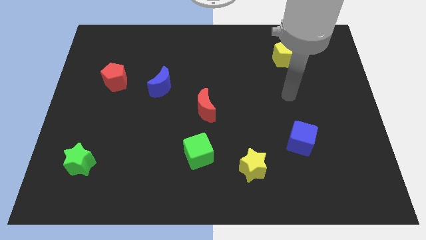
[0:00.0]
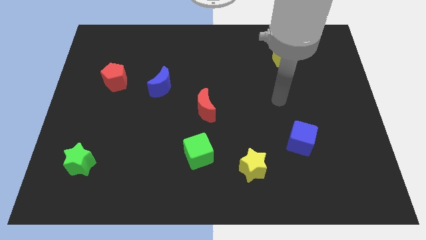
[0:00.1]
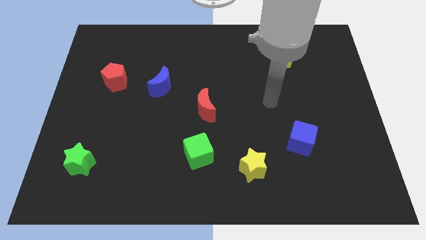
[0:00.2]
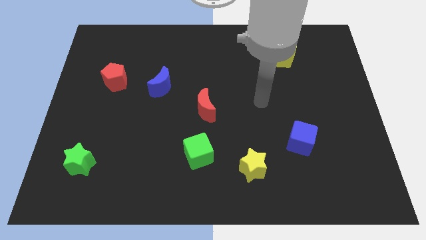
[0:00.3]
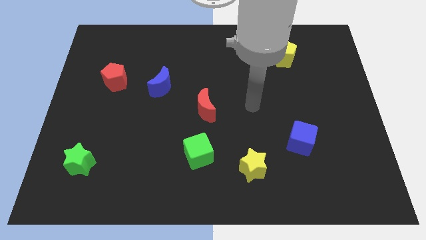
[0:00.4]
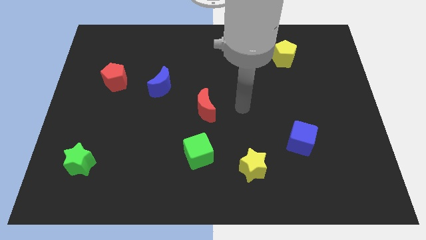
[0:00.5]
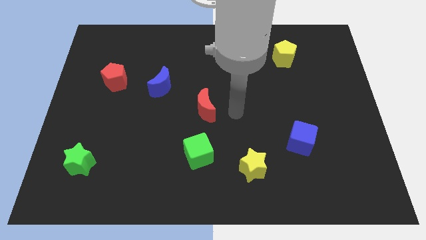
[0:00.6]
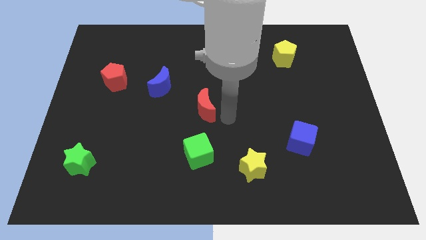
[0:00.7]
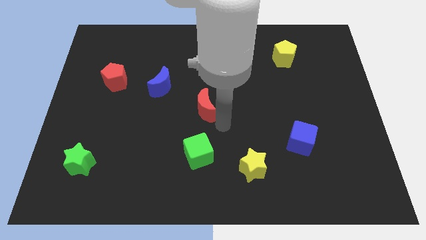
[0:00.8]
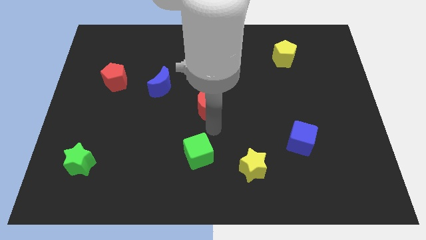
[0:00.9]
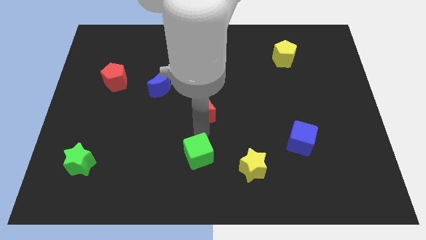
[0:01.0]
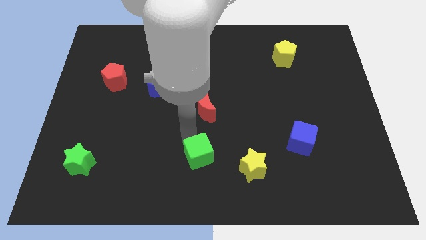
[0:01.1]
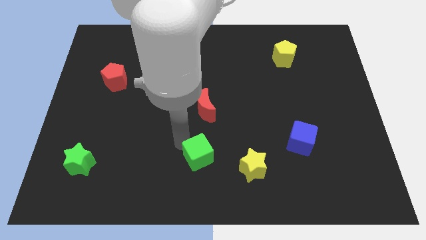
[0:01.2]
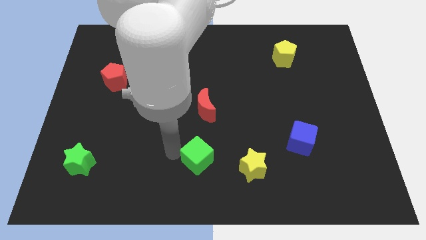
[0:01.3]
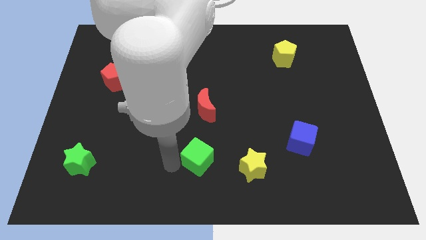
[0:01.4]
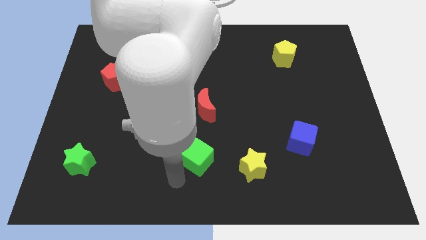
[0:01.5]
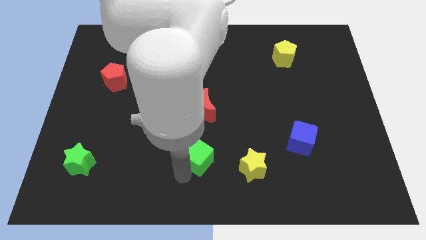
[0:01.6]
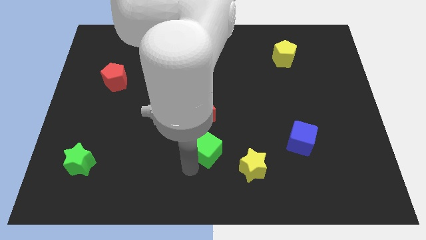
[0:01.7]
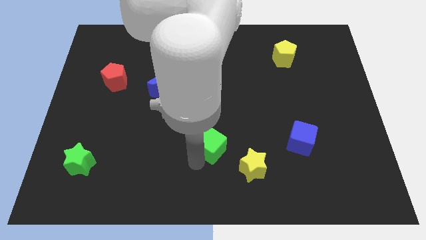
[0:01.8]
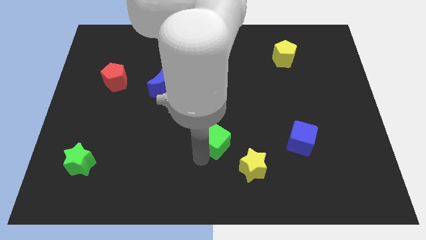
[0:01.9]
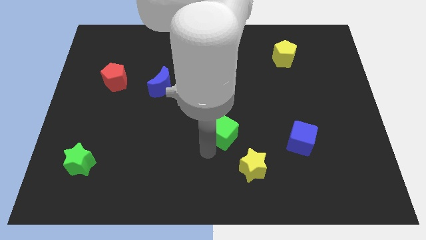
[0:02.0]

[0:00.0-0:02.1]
slightly slide the green cube upwards and to the right

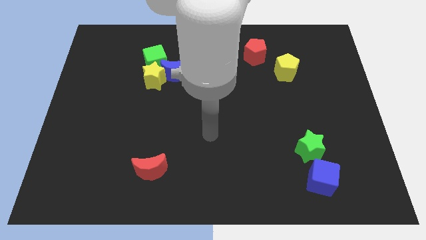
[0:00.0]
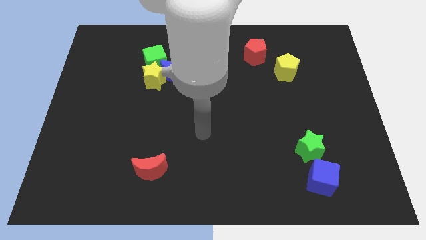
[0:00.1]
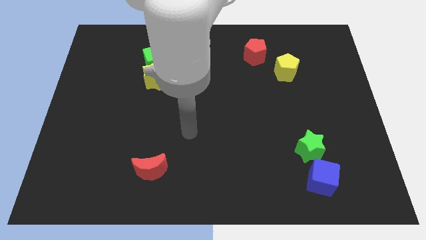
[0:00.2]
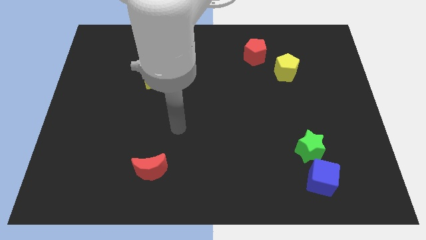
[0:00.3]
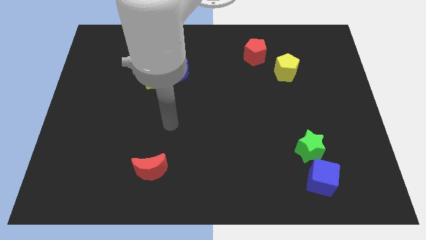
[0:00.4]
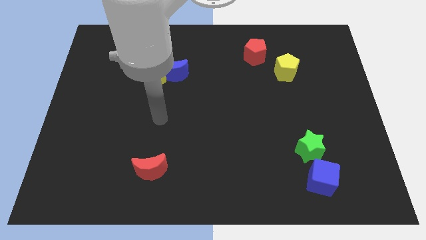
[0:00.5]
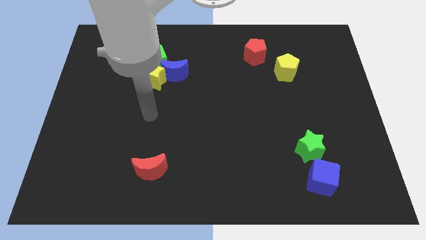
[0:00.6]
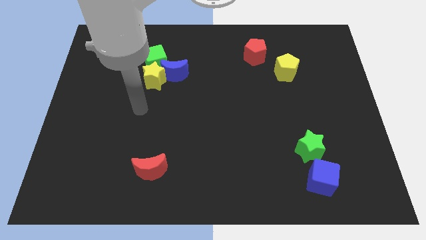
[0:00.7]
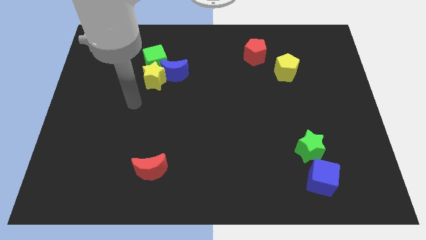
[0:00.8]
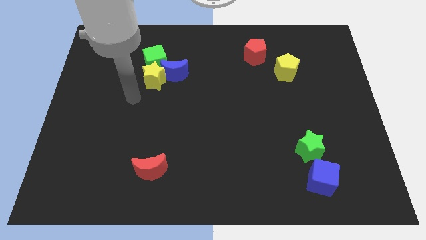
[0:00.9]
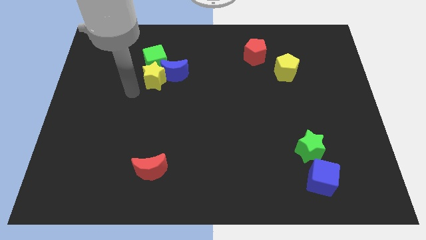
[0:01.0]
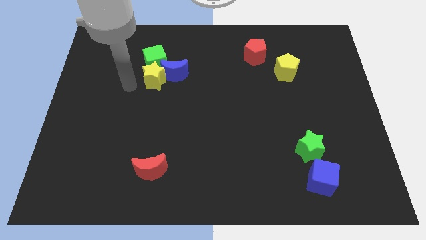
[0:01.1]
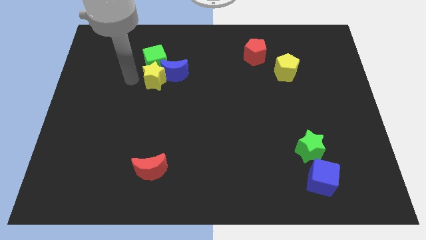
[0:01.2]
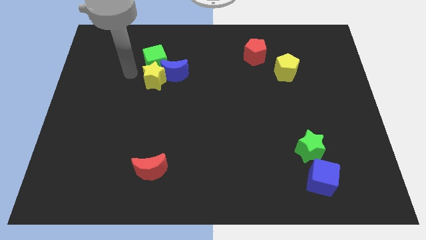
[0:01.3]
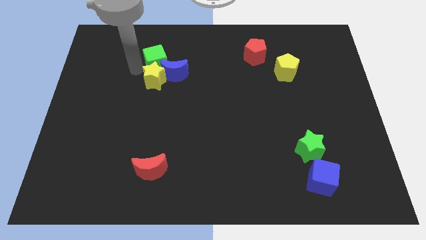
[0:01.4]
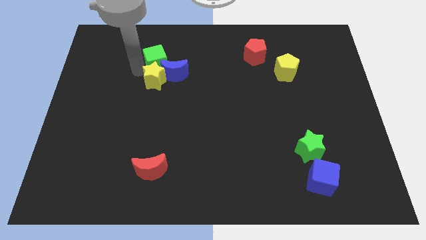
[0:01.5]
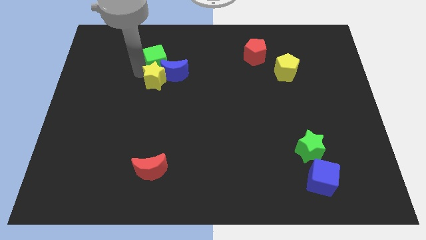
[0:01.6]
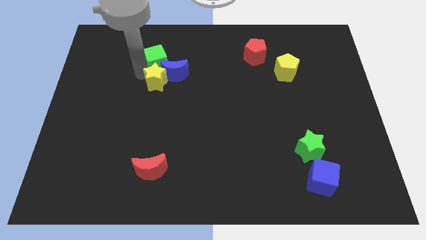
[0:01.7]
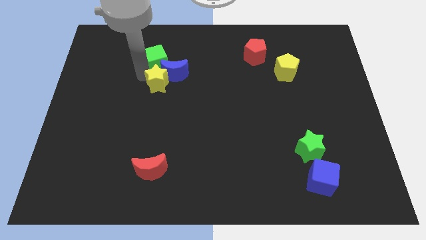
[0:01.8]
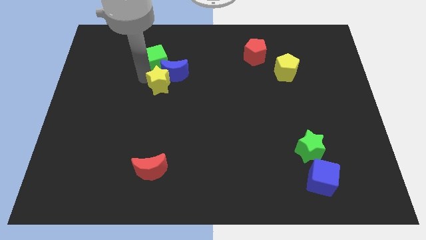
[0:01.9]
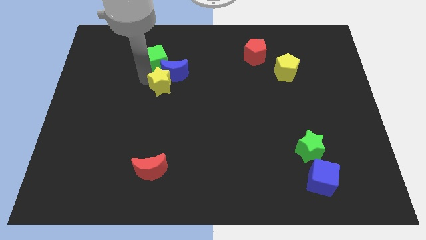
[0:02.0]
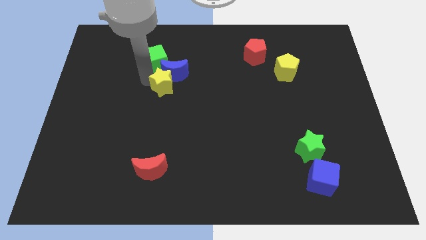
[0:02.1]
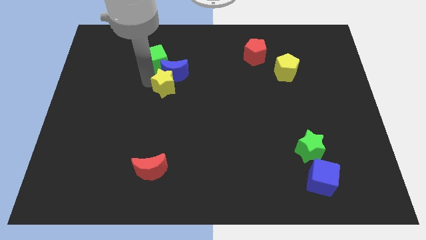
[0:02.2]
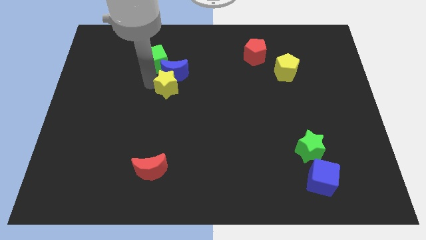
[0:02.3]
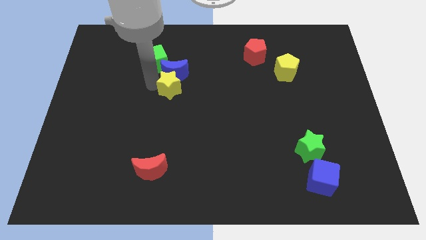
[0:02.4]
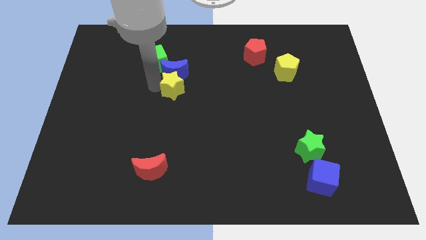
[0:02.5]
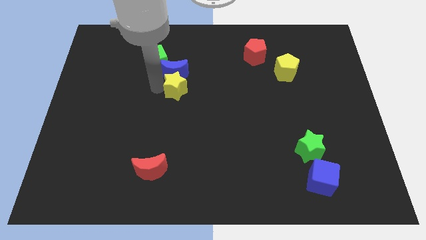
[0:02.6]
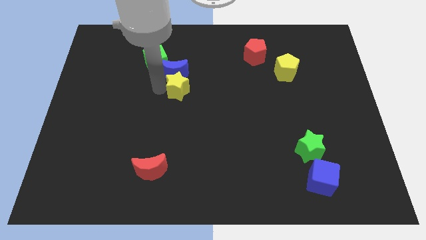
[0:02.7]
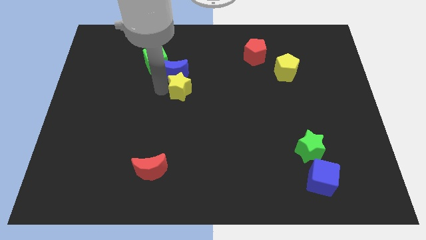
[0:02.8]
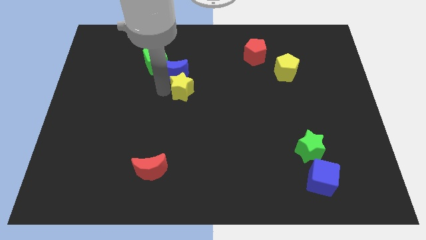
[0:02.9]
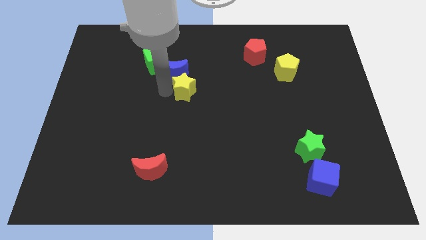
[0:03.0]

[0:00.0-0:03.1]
slightly push the yellow star right

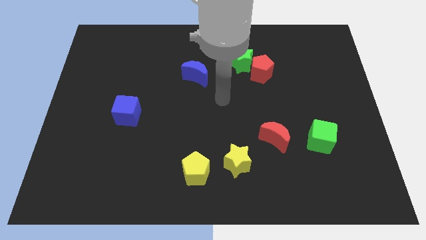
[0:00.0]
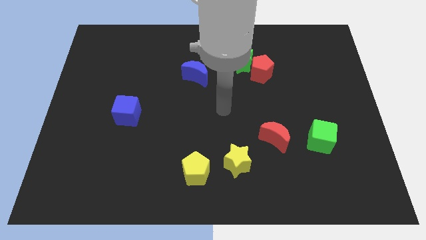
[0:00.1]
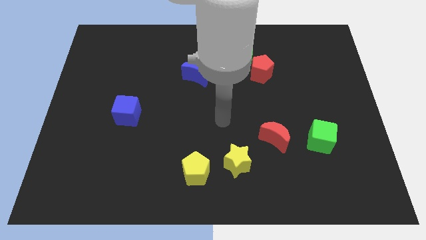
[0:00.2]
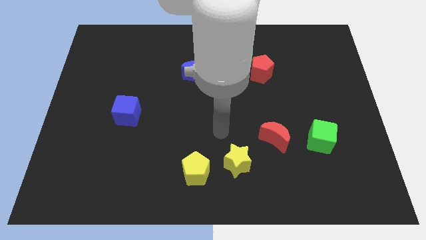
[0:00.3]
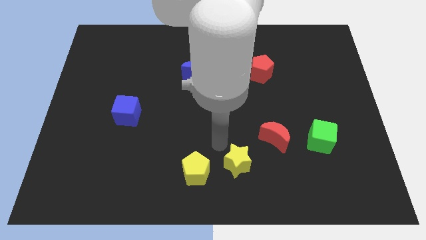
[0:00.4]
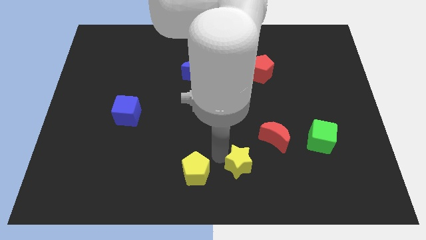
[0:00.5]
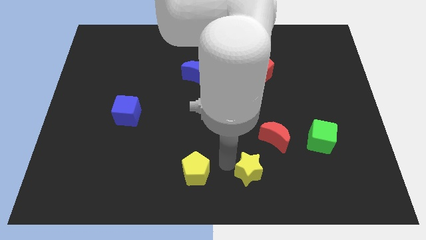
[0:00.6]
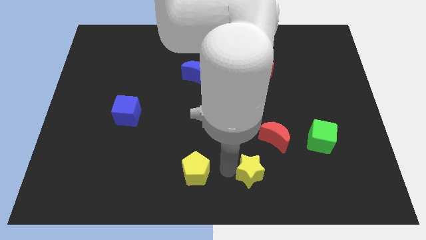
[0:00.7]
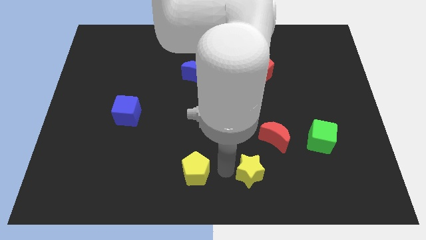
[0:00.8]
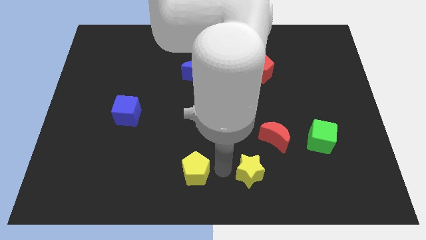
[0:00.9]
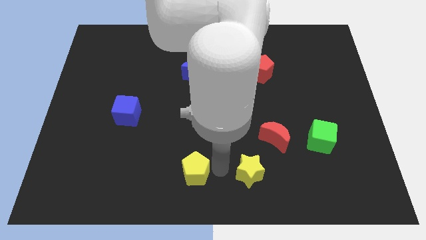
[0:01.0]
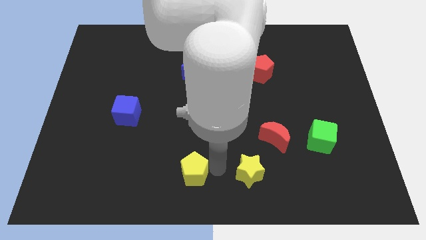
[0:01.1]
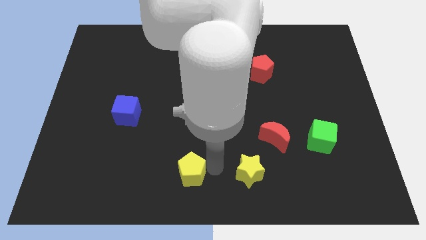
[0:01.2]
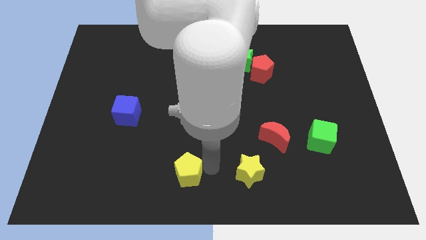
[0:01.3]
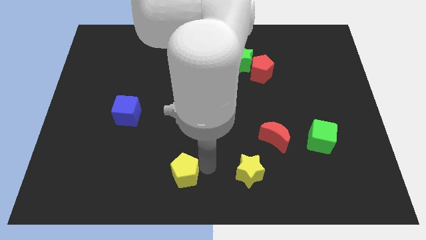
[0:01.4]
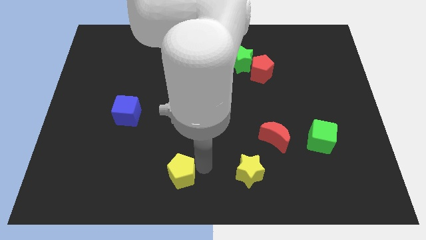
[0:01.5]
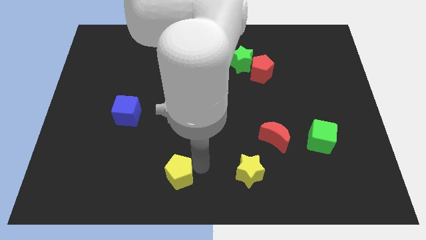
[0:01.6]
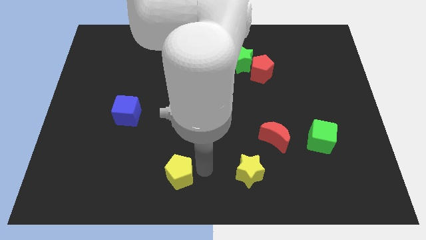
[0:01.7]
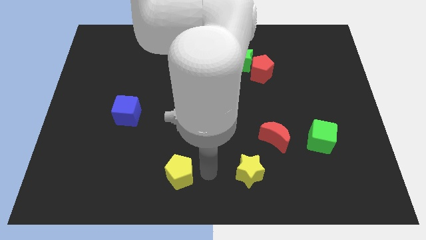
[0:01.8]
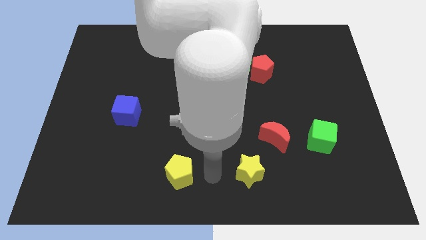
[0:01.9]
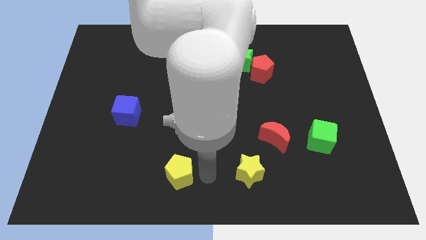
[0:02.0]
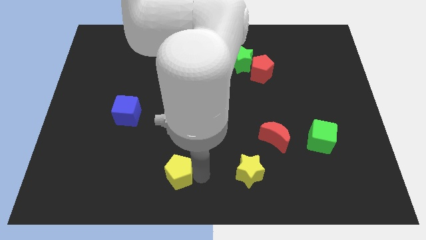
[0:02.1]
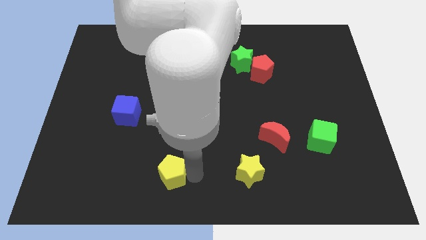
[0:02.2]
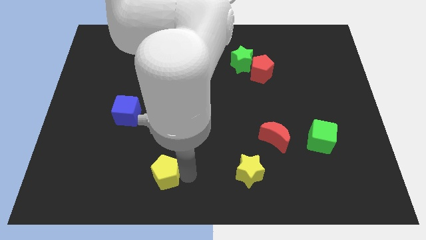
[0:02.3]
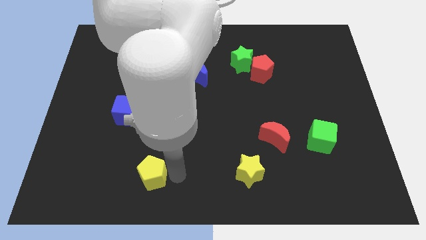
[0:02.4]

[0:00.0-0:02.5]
slide the yellow pentagon left slightly

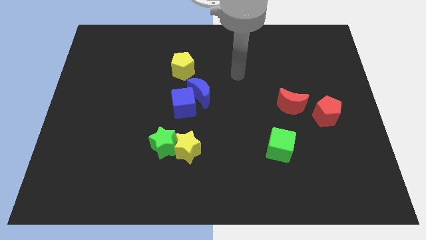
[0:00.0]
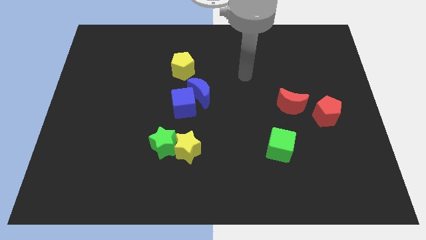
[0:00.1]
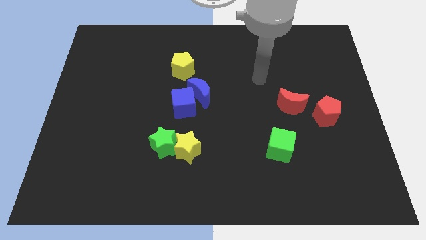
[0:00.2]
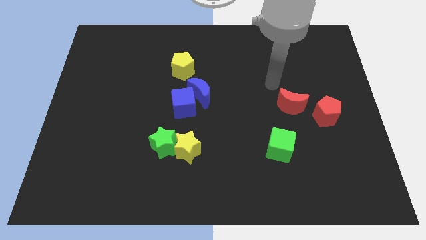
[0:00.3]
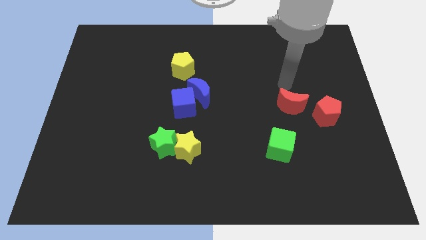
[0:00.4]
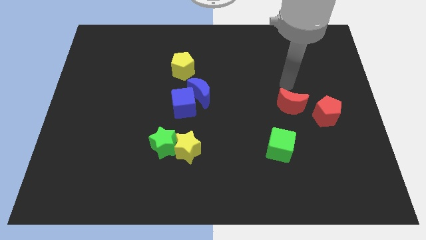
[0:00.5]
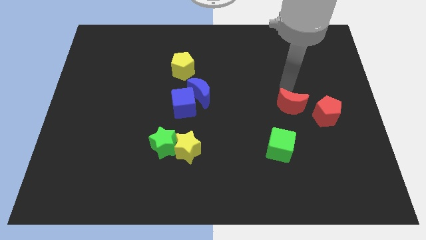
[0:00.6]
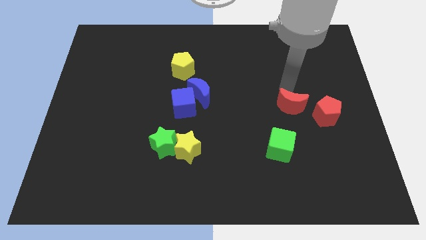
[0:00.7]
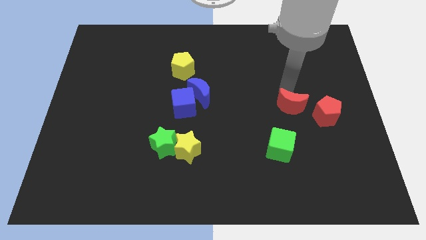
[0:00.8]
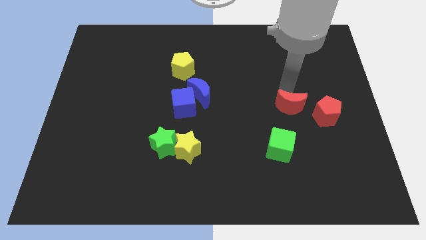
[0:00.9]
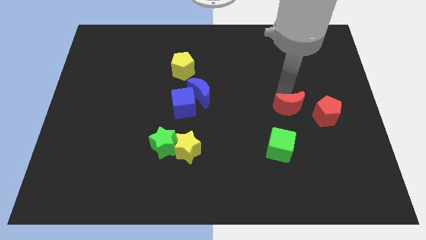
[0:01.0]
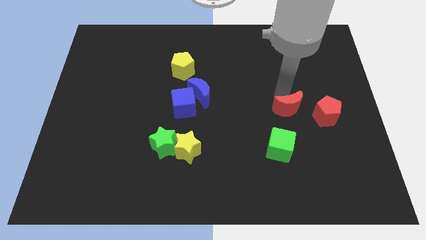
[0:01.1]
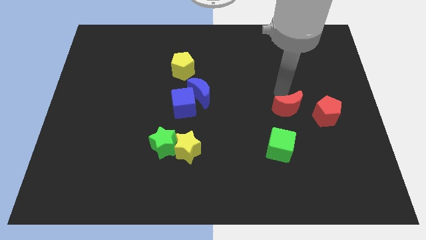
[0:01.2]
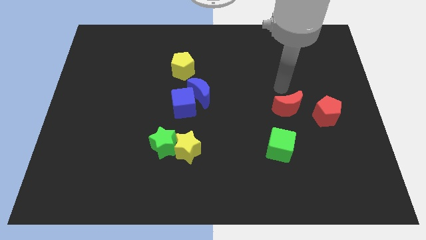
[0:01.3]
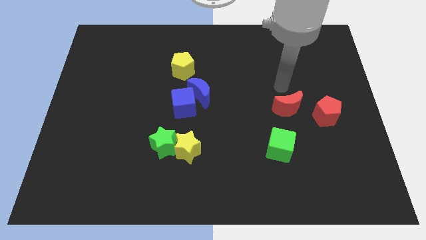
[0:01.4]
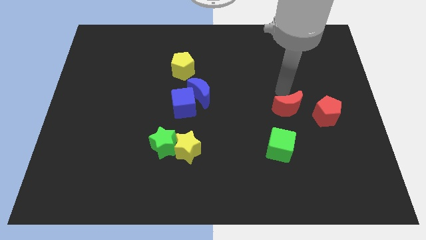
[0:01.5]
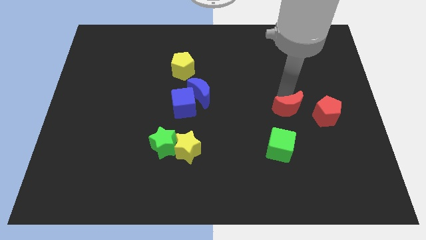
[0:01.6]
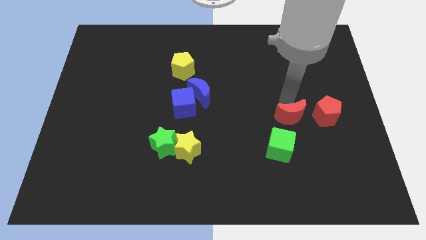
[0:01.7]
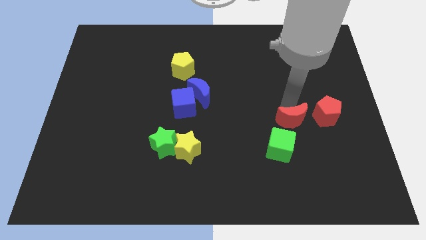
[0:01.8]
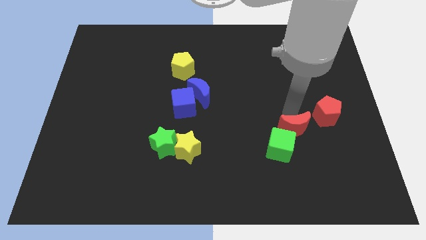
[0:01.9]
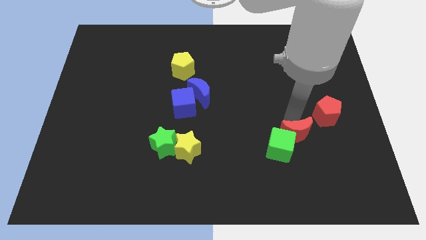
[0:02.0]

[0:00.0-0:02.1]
push the red moon a little downwards
